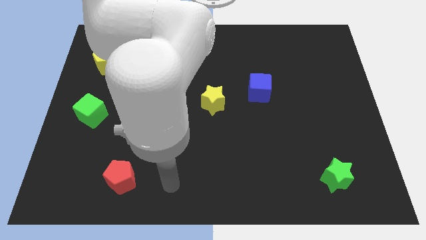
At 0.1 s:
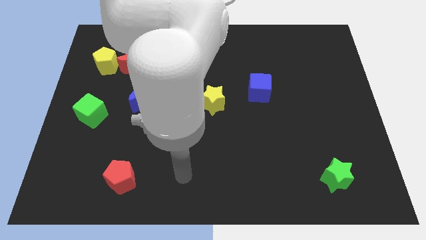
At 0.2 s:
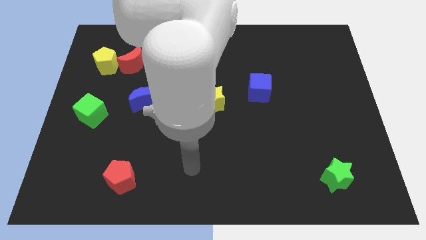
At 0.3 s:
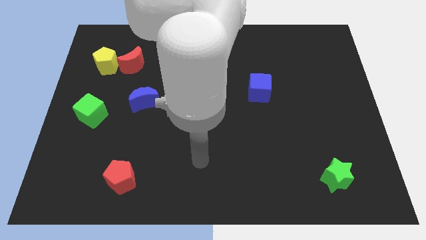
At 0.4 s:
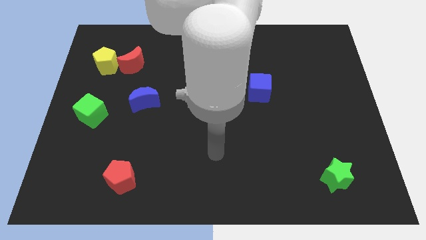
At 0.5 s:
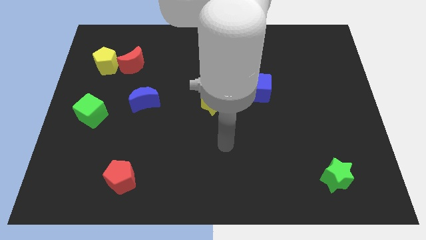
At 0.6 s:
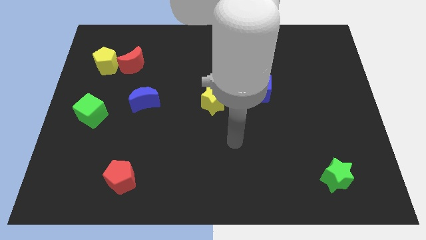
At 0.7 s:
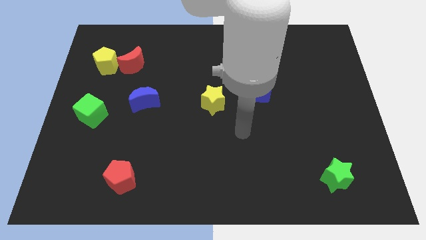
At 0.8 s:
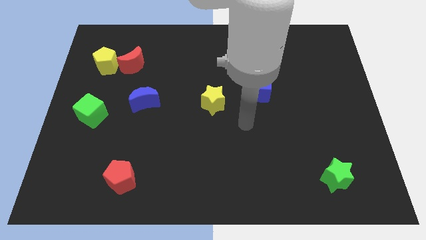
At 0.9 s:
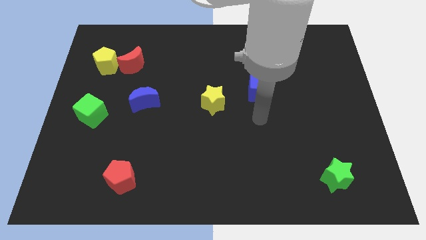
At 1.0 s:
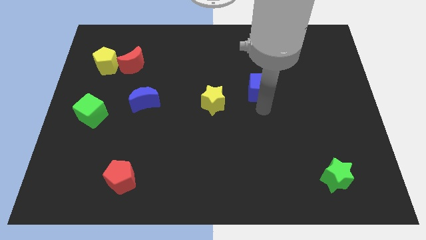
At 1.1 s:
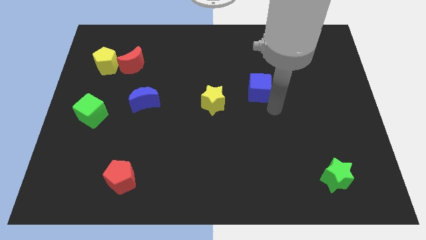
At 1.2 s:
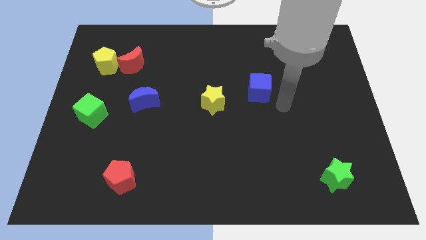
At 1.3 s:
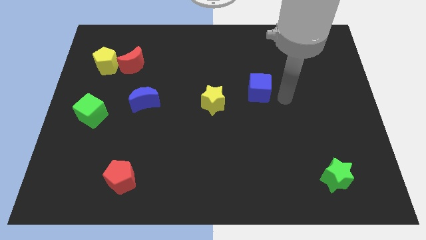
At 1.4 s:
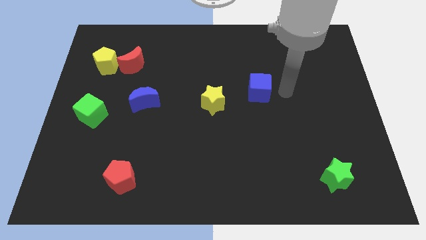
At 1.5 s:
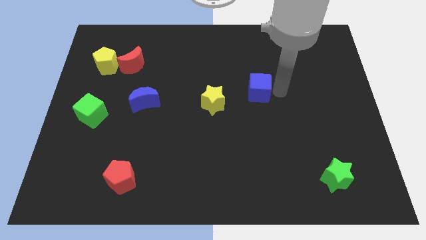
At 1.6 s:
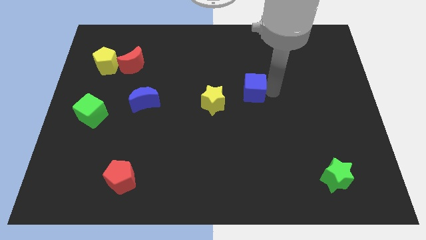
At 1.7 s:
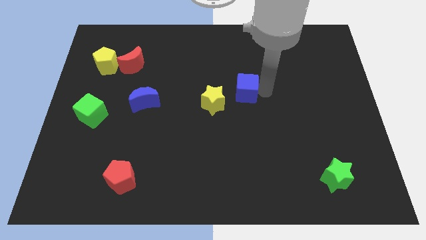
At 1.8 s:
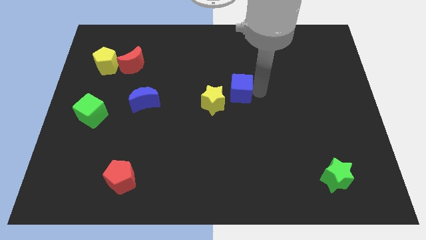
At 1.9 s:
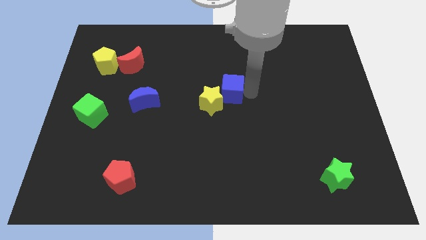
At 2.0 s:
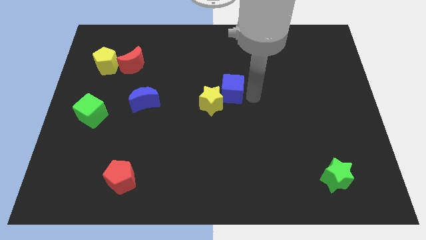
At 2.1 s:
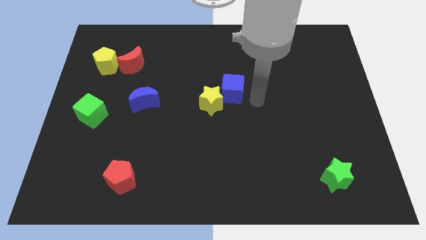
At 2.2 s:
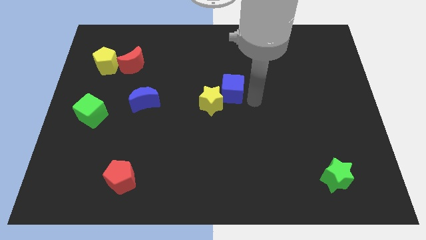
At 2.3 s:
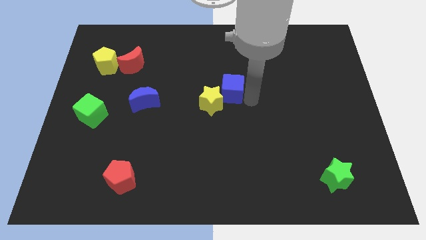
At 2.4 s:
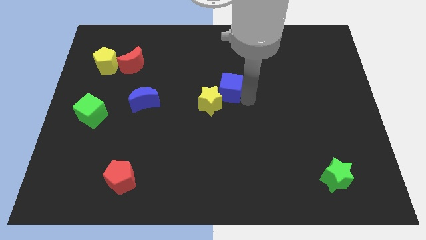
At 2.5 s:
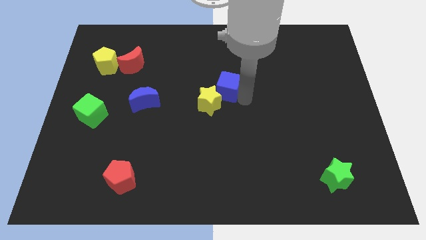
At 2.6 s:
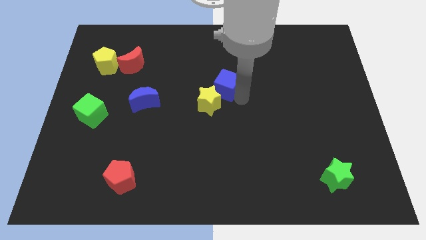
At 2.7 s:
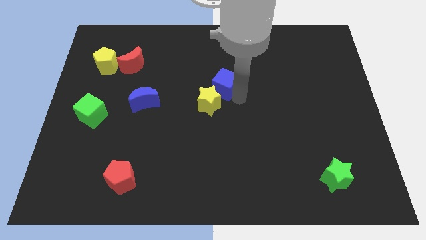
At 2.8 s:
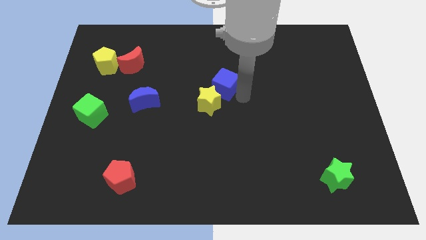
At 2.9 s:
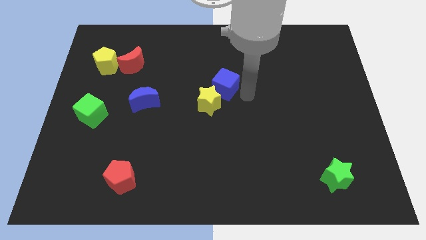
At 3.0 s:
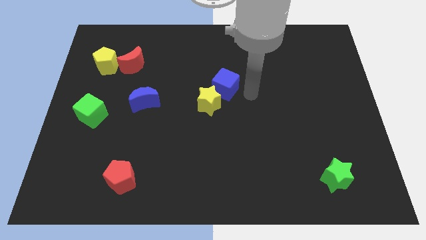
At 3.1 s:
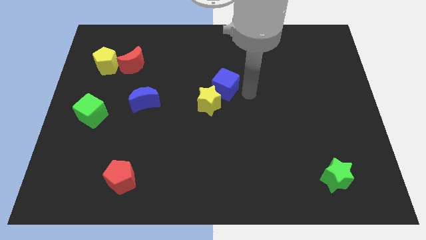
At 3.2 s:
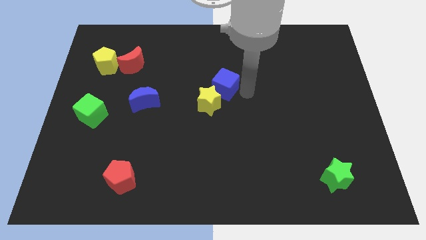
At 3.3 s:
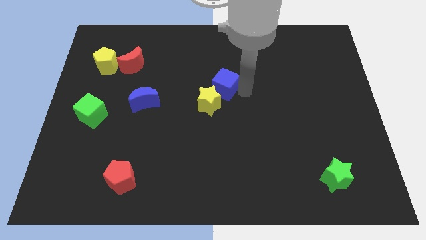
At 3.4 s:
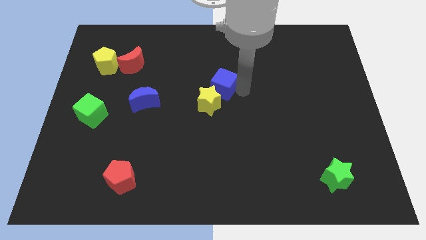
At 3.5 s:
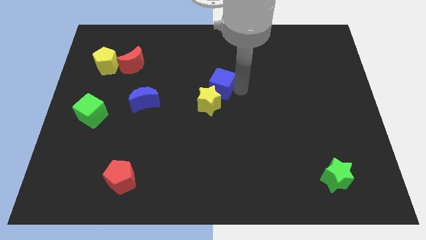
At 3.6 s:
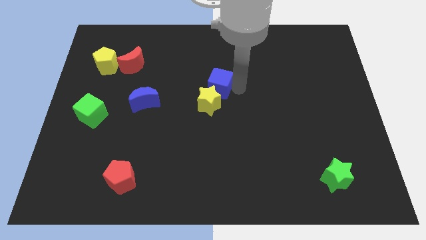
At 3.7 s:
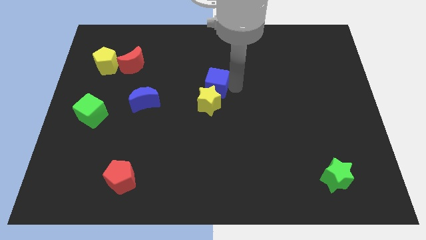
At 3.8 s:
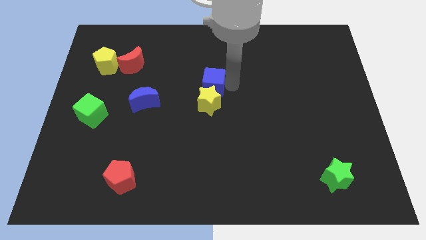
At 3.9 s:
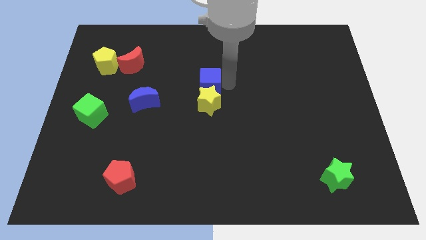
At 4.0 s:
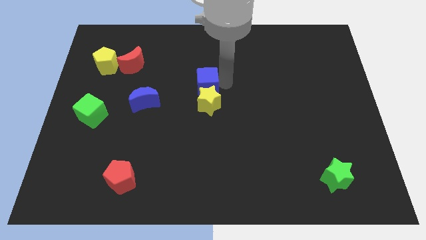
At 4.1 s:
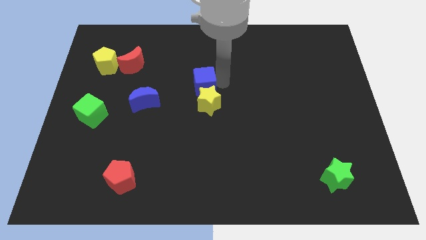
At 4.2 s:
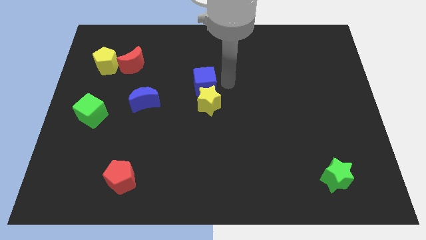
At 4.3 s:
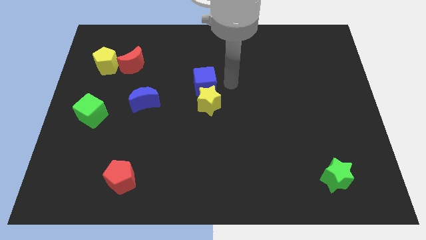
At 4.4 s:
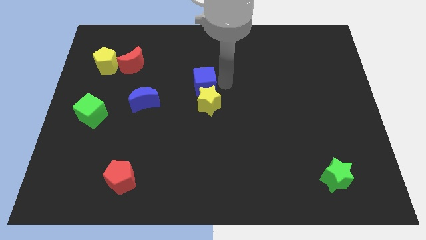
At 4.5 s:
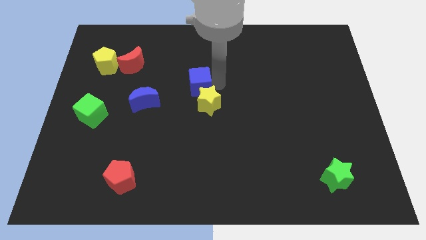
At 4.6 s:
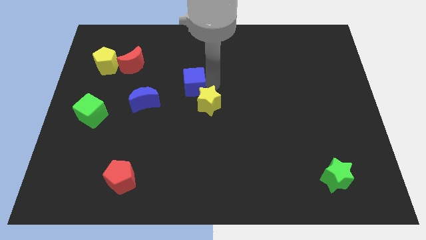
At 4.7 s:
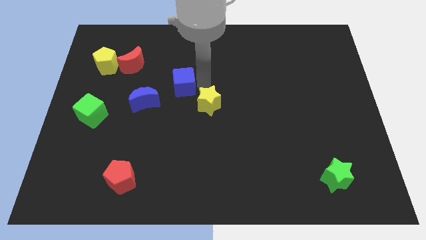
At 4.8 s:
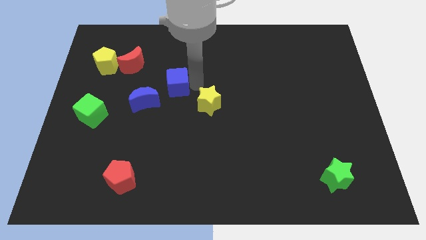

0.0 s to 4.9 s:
move the blue cube left

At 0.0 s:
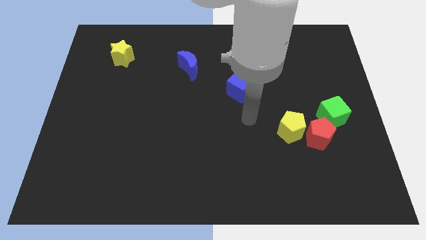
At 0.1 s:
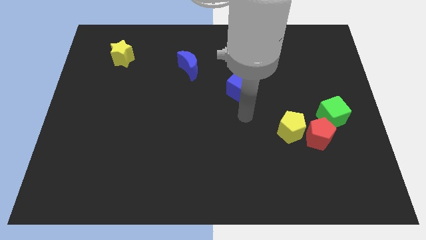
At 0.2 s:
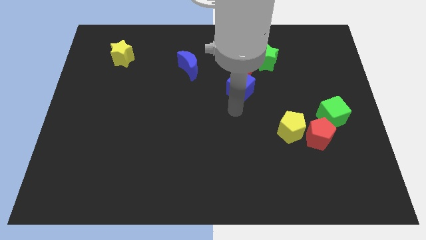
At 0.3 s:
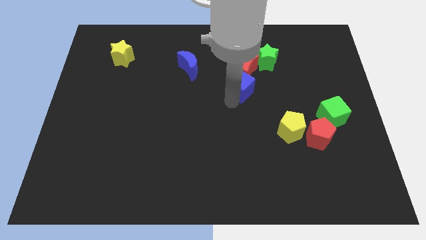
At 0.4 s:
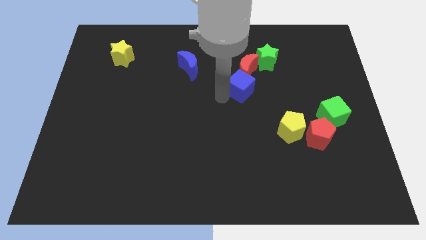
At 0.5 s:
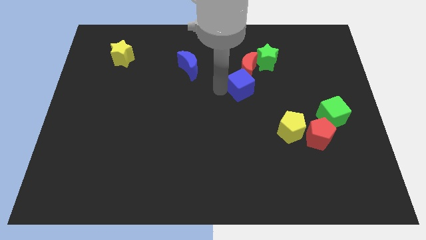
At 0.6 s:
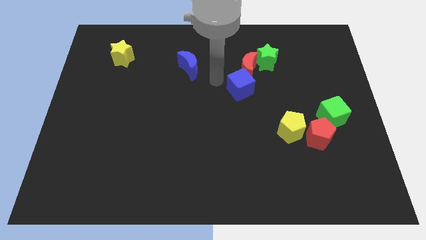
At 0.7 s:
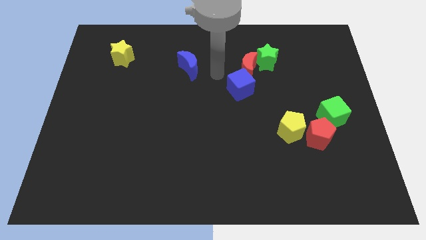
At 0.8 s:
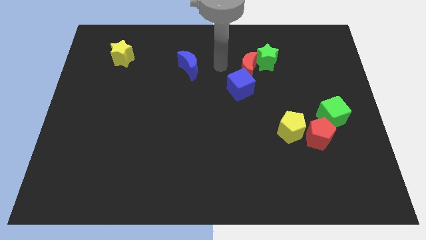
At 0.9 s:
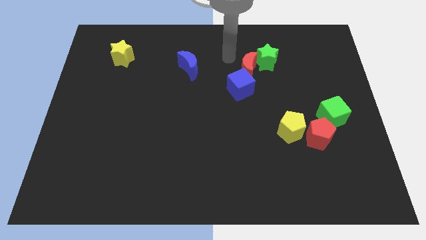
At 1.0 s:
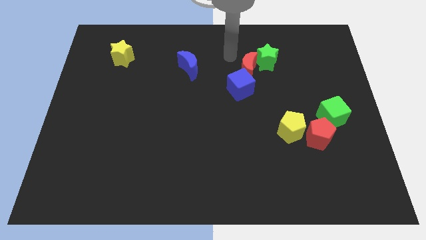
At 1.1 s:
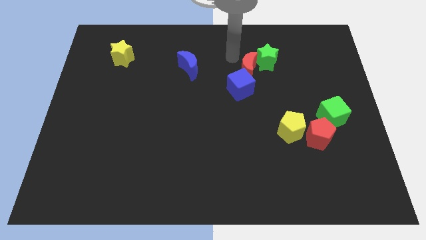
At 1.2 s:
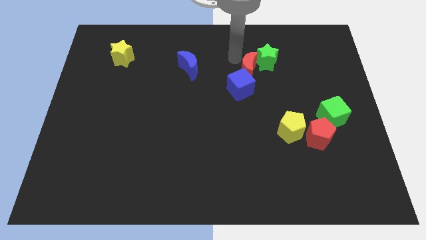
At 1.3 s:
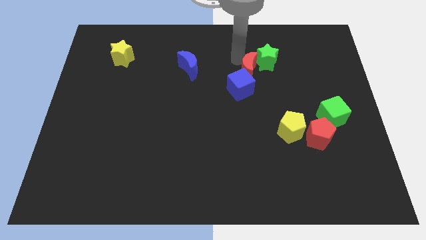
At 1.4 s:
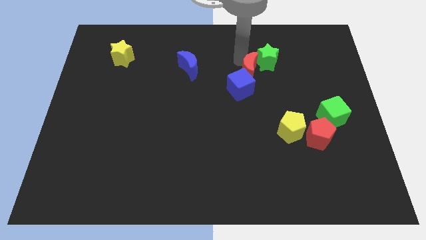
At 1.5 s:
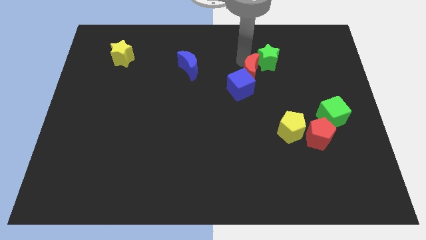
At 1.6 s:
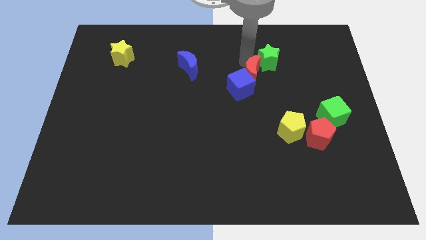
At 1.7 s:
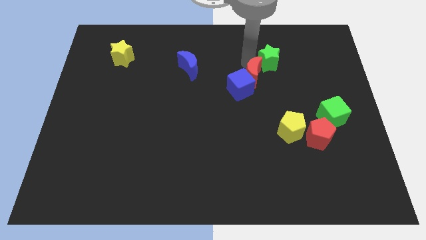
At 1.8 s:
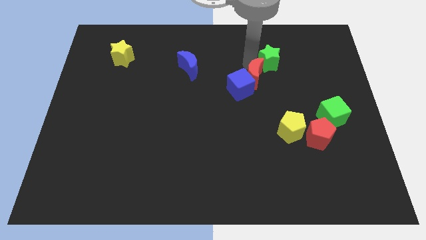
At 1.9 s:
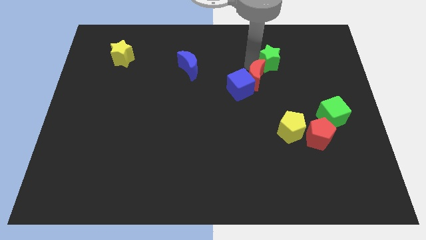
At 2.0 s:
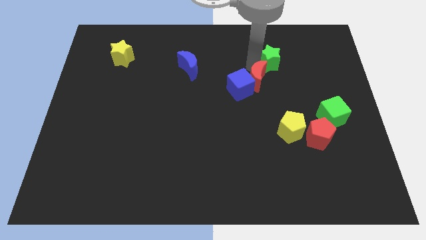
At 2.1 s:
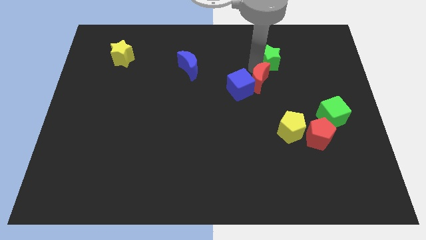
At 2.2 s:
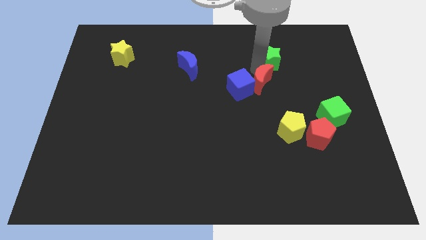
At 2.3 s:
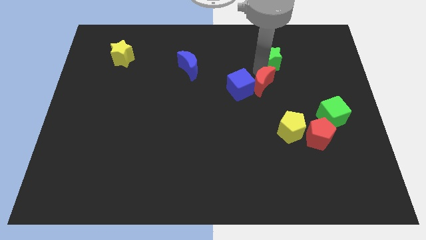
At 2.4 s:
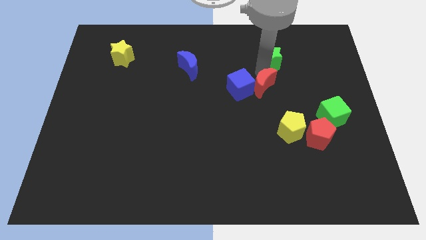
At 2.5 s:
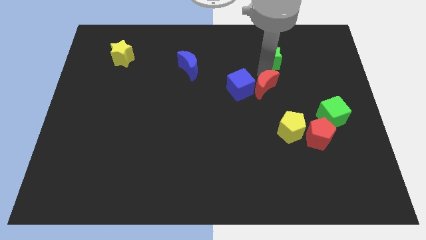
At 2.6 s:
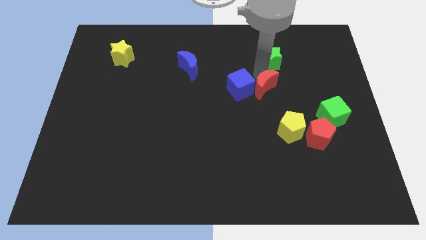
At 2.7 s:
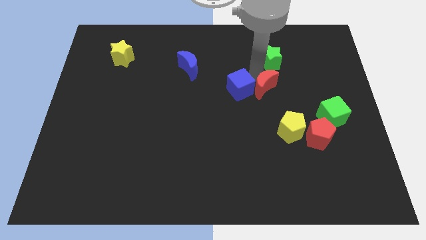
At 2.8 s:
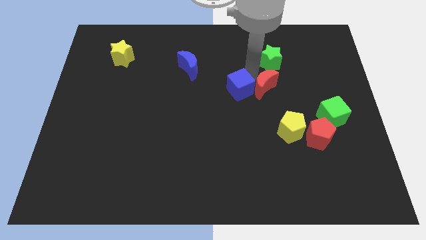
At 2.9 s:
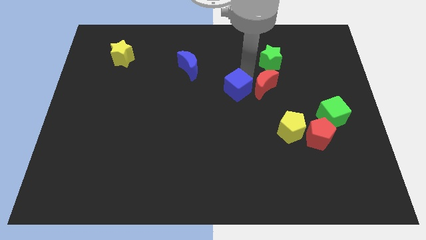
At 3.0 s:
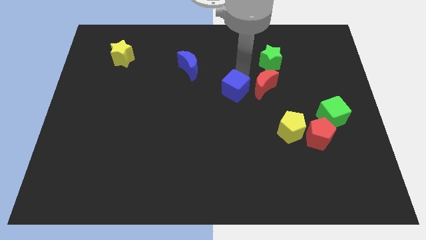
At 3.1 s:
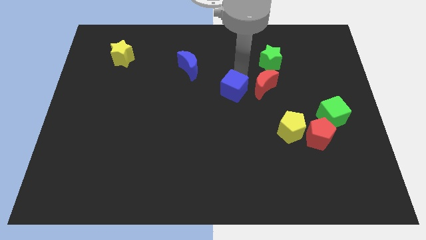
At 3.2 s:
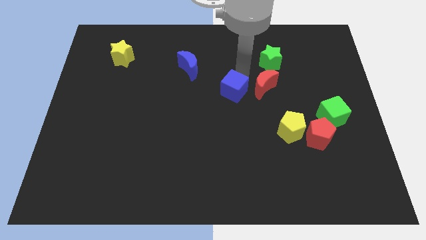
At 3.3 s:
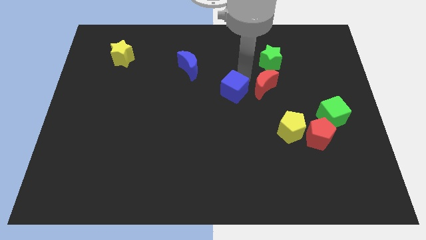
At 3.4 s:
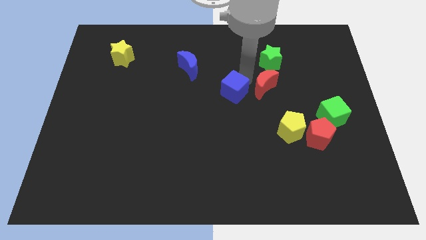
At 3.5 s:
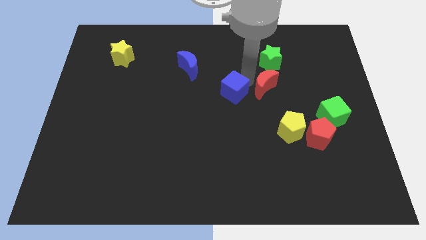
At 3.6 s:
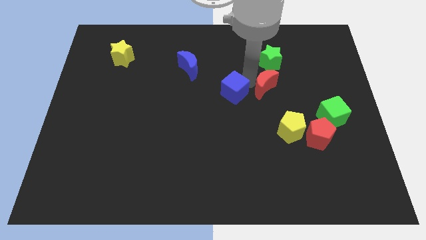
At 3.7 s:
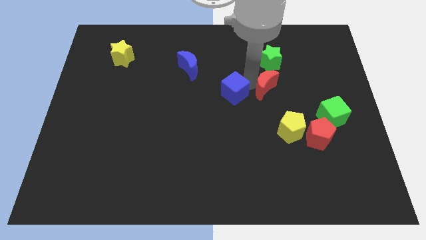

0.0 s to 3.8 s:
slightly move the red moon diagonally down and to the right
